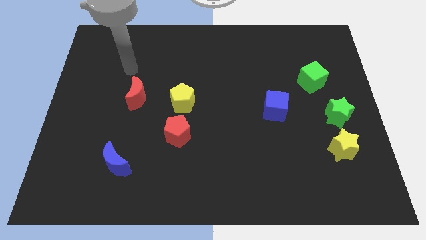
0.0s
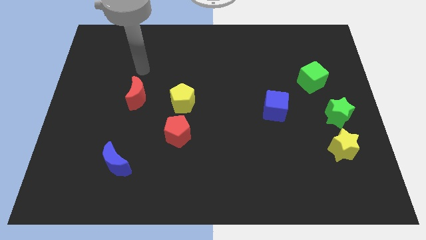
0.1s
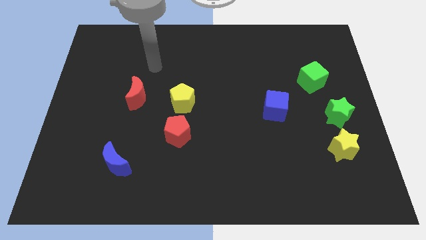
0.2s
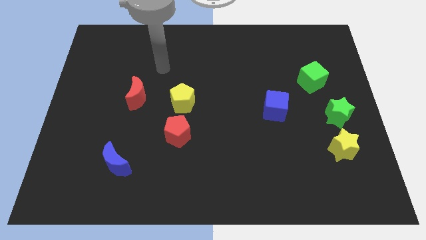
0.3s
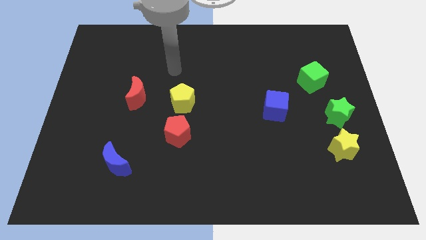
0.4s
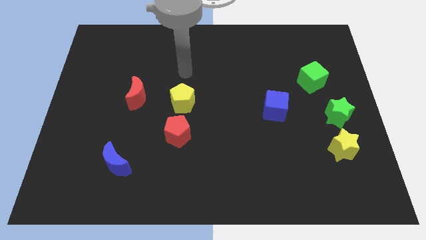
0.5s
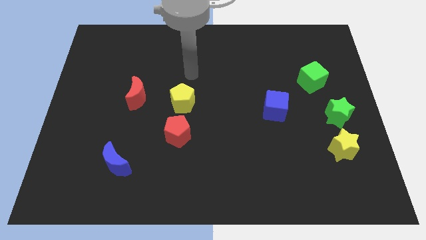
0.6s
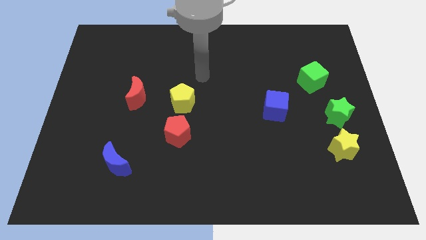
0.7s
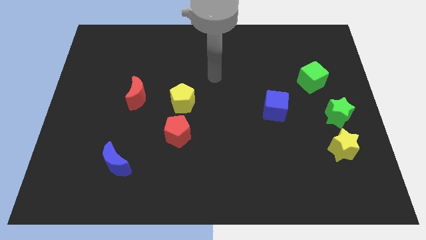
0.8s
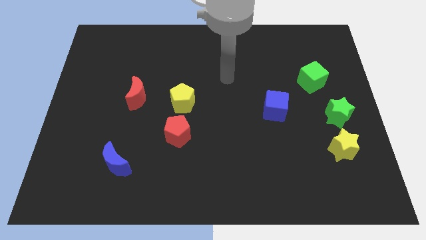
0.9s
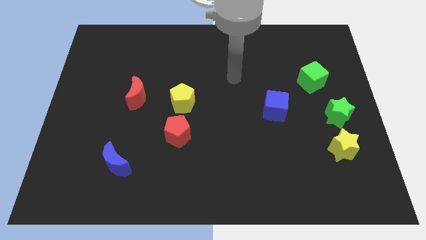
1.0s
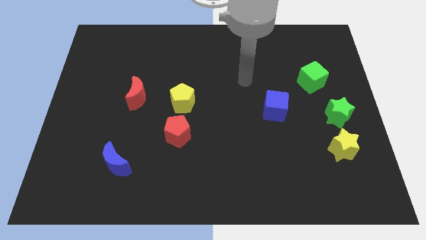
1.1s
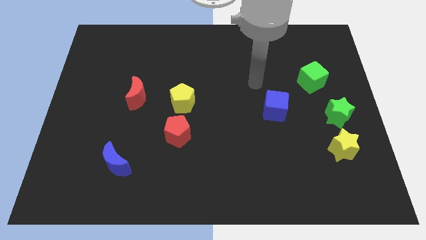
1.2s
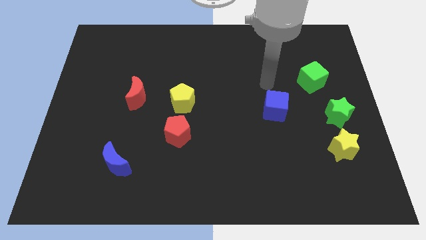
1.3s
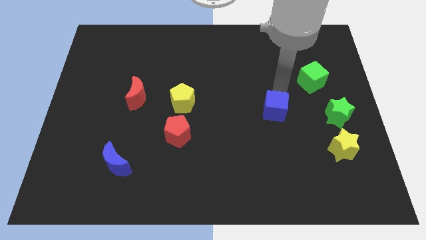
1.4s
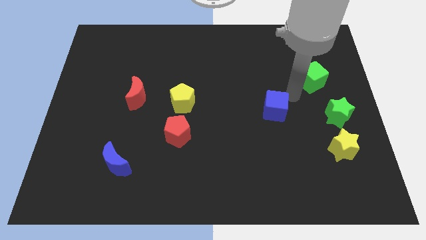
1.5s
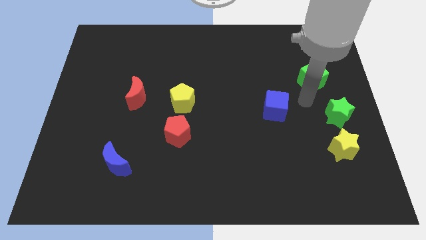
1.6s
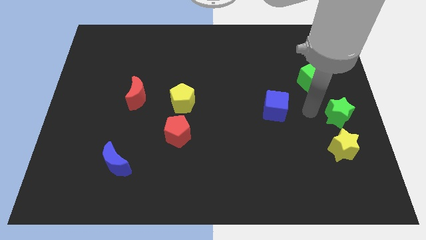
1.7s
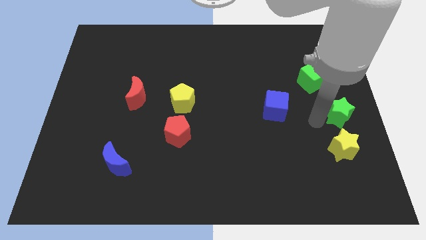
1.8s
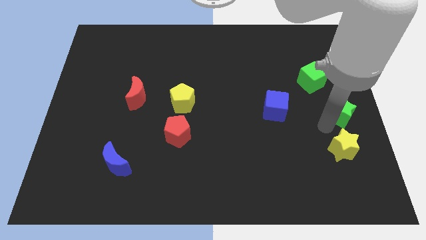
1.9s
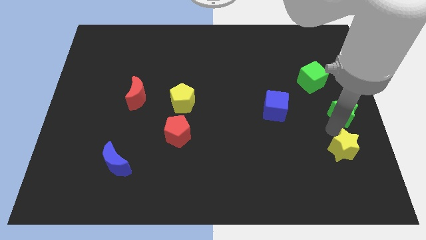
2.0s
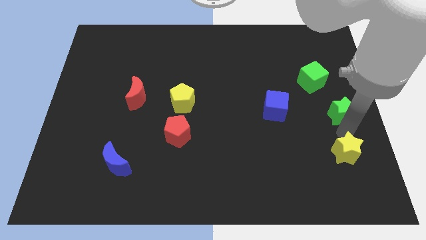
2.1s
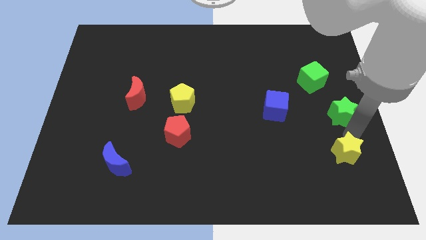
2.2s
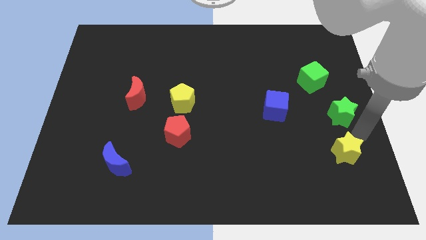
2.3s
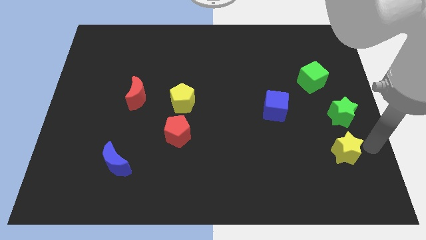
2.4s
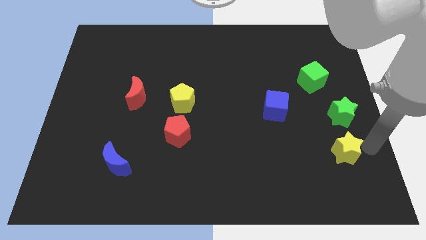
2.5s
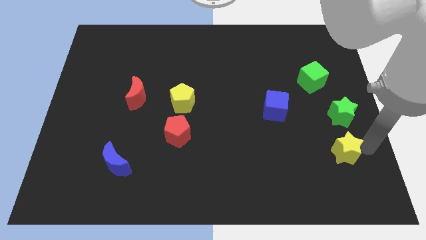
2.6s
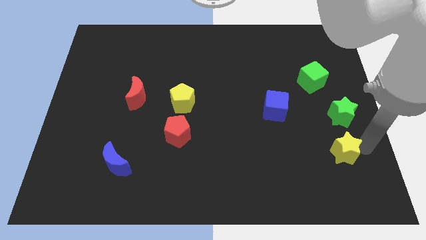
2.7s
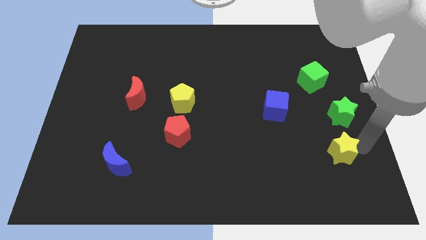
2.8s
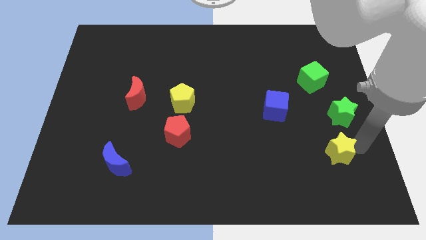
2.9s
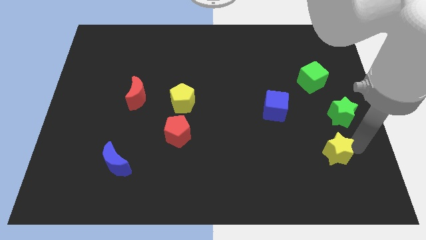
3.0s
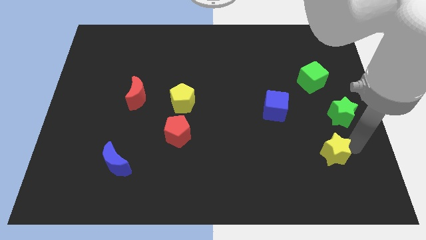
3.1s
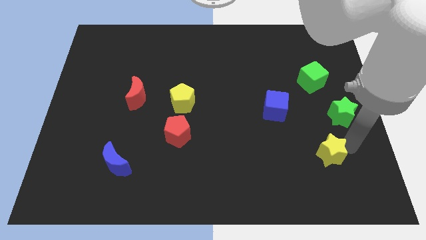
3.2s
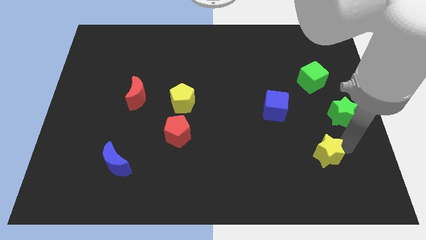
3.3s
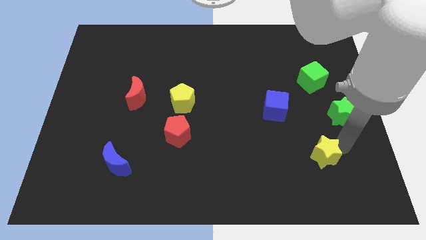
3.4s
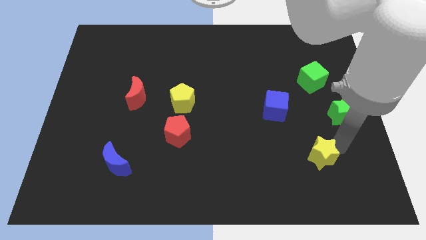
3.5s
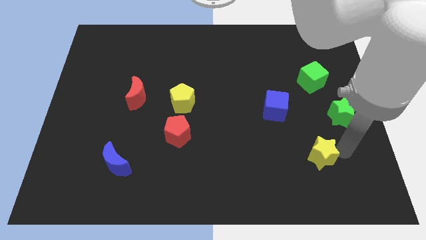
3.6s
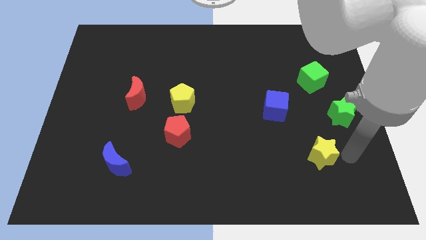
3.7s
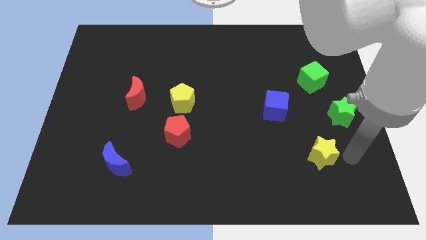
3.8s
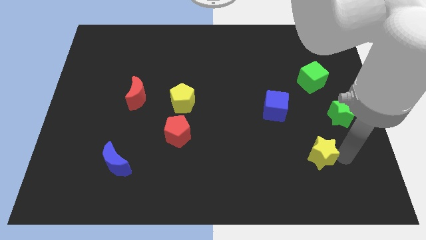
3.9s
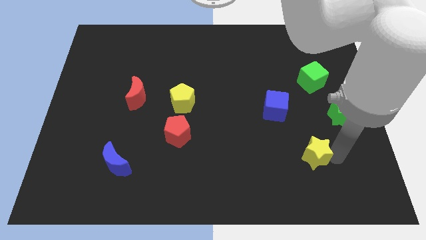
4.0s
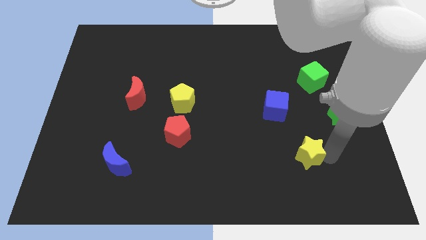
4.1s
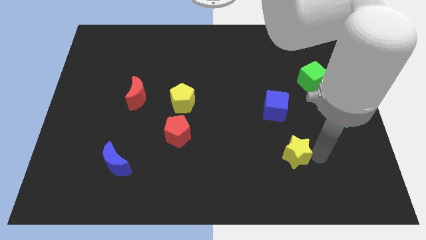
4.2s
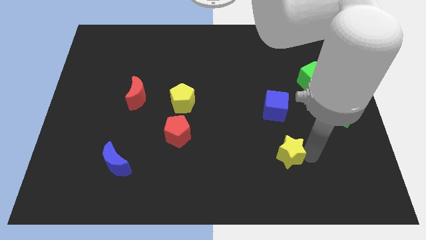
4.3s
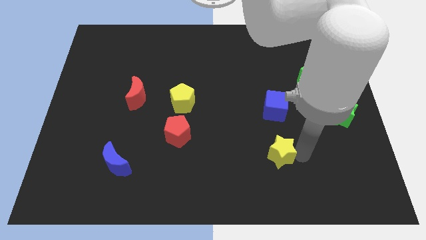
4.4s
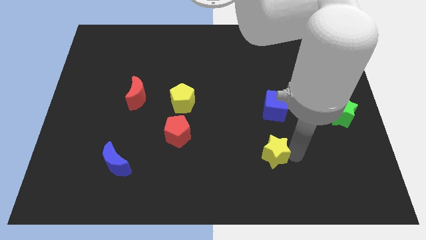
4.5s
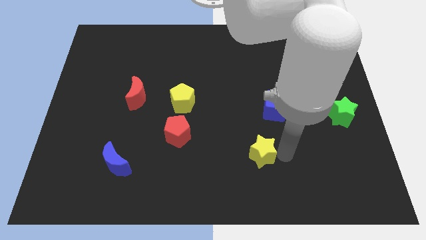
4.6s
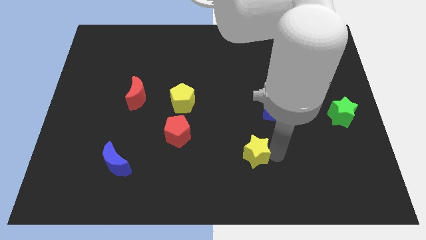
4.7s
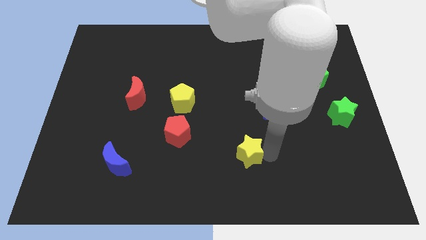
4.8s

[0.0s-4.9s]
slide the yellow star left

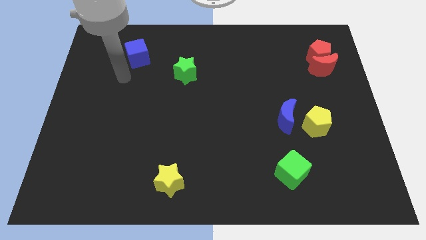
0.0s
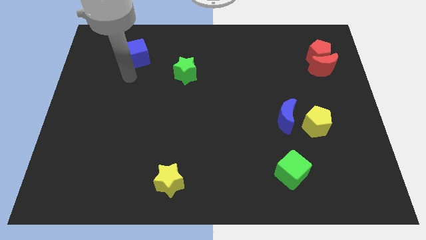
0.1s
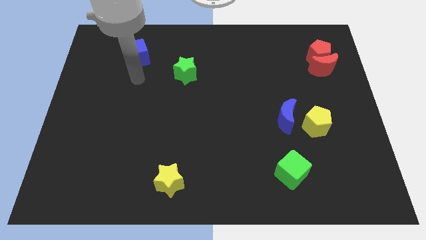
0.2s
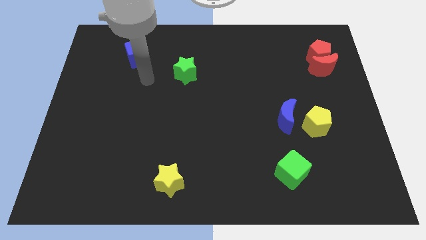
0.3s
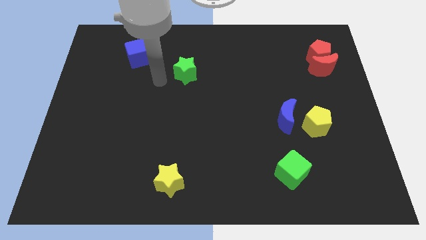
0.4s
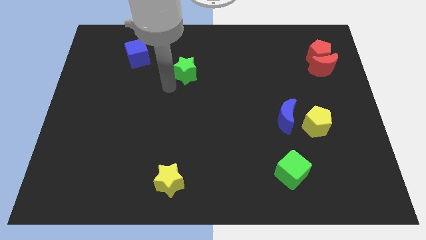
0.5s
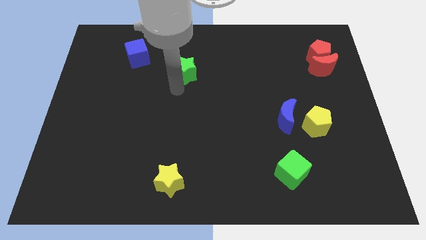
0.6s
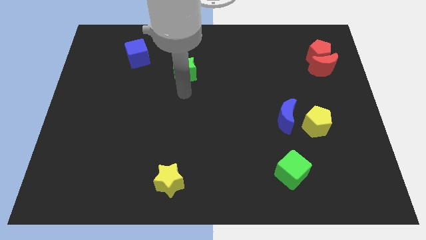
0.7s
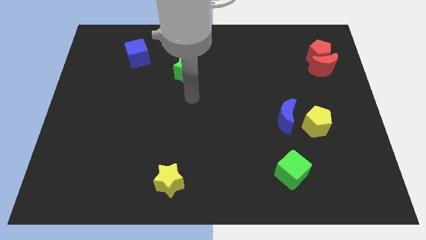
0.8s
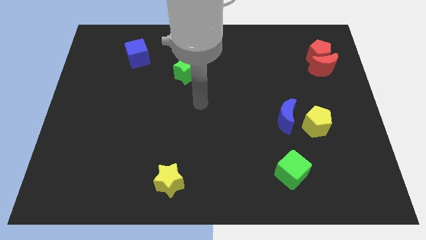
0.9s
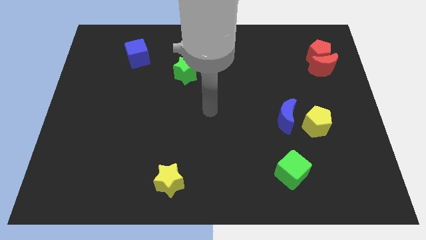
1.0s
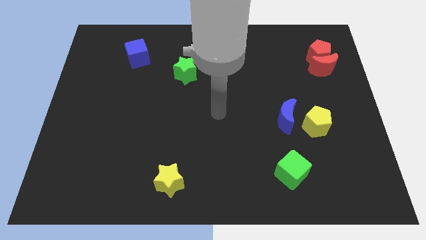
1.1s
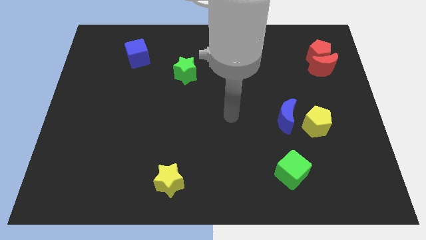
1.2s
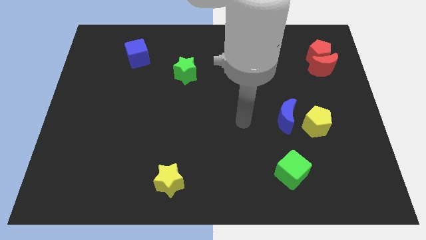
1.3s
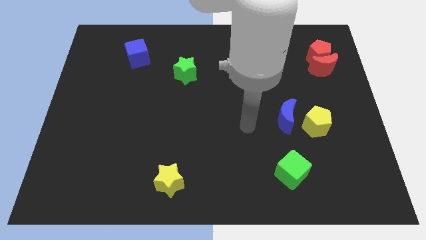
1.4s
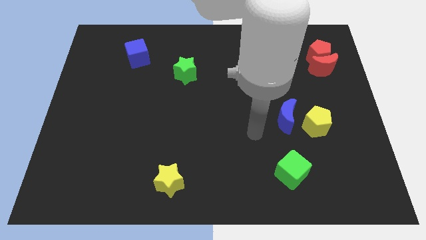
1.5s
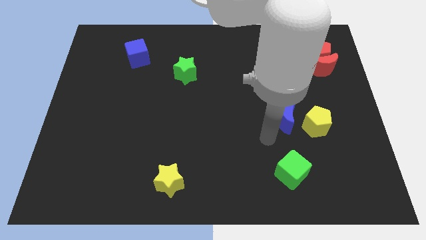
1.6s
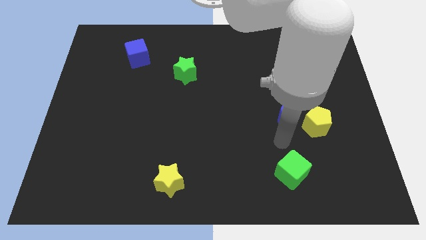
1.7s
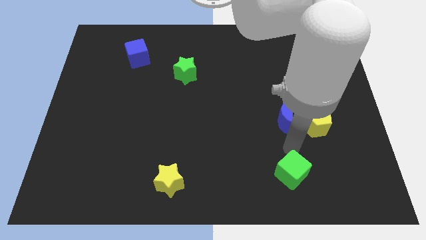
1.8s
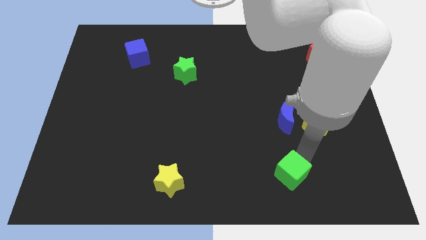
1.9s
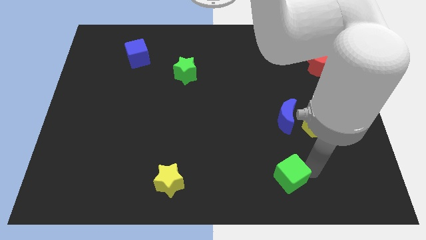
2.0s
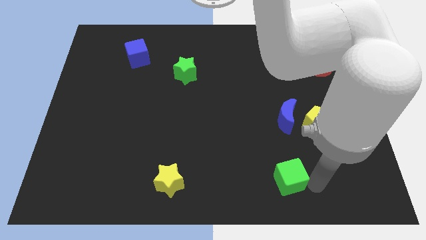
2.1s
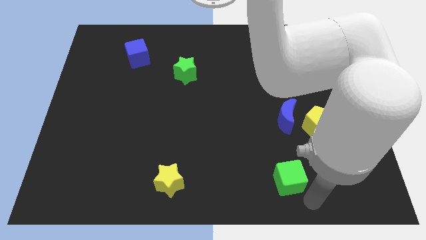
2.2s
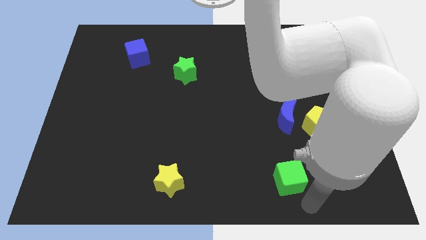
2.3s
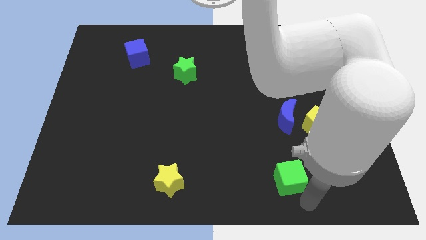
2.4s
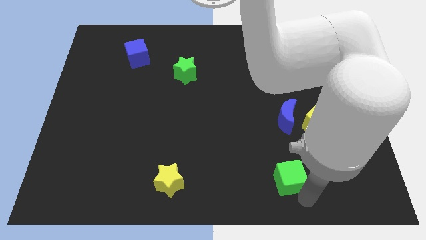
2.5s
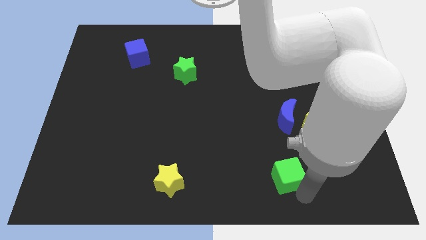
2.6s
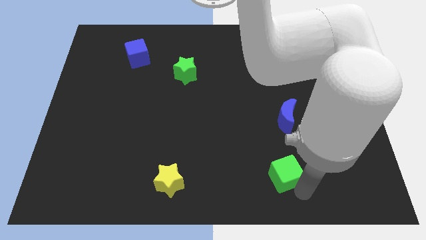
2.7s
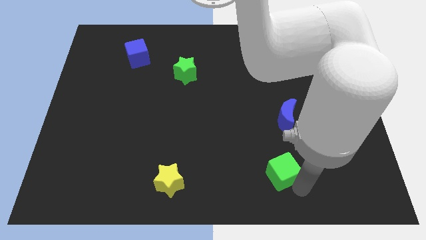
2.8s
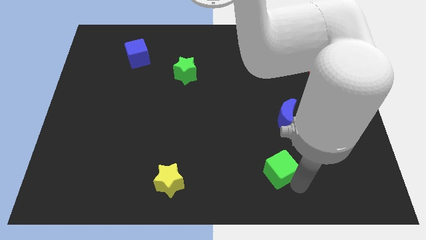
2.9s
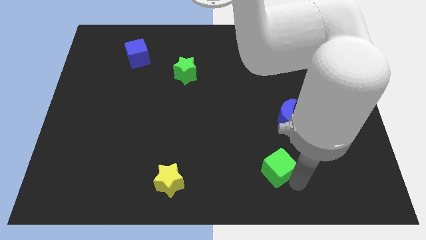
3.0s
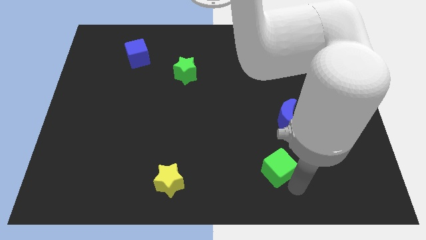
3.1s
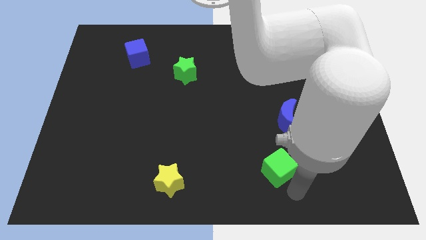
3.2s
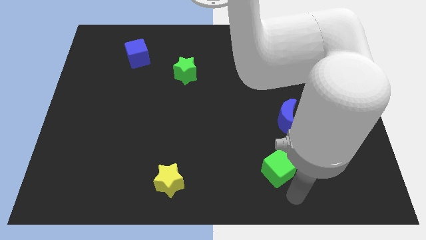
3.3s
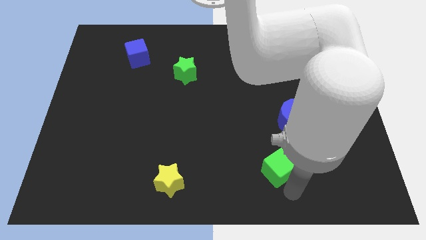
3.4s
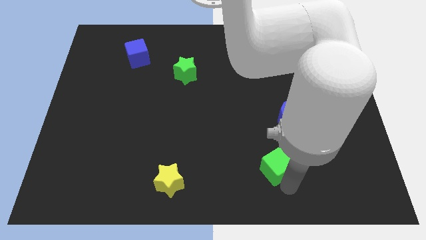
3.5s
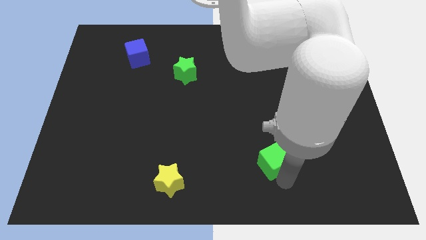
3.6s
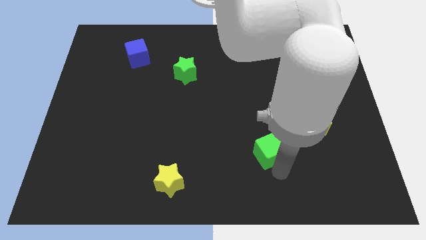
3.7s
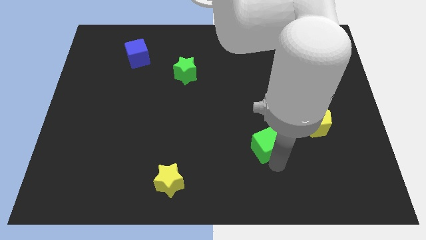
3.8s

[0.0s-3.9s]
slightly move the green cube diagonally upwards and left
